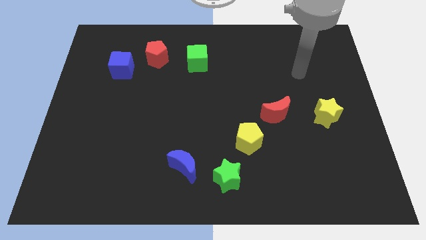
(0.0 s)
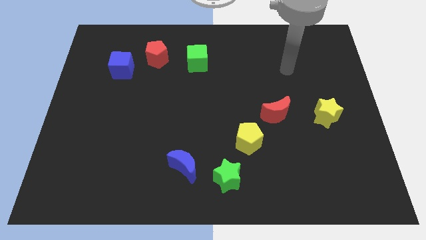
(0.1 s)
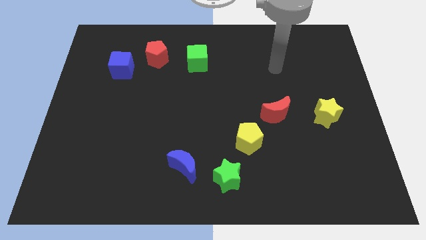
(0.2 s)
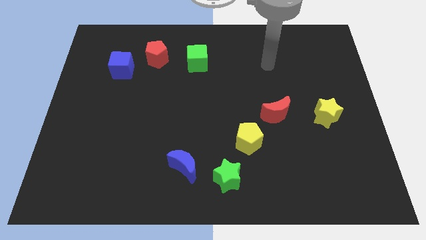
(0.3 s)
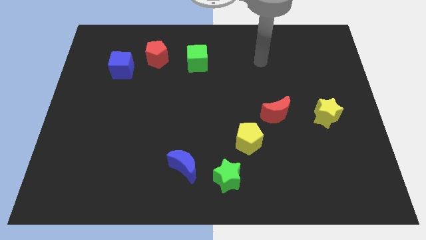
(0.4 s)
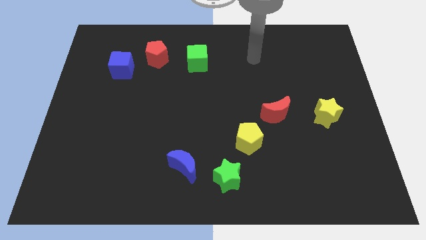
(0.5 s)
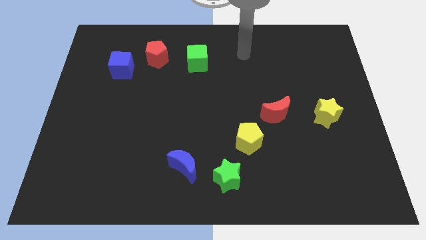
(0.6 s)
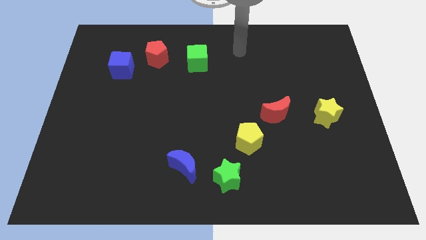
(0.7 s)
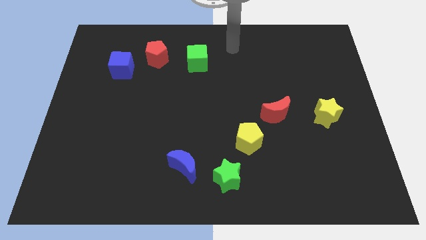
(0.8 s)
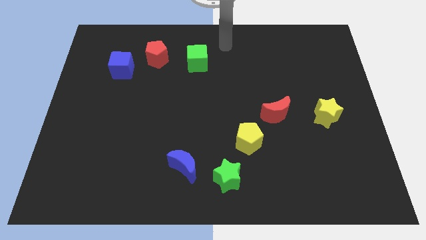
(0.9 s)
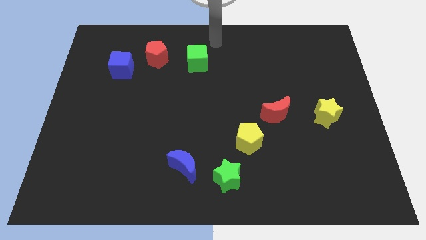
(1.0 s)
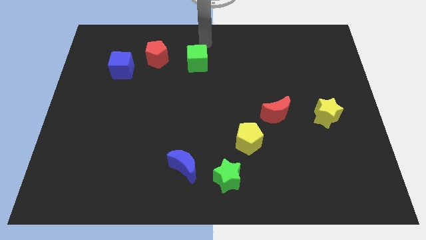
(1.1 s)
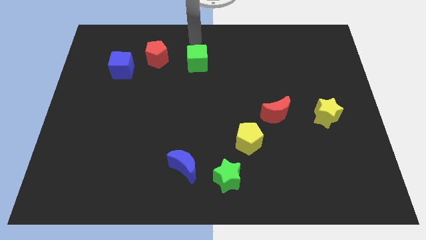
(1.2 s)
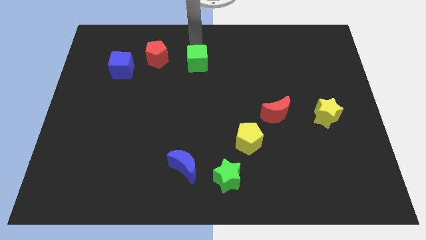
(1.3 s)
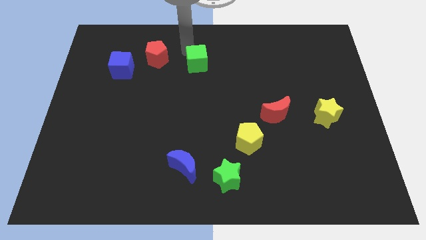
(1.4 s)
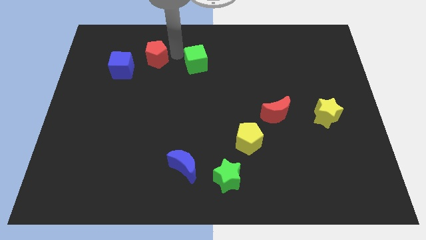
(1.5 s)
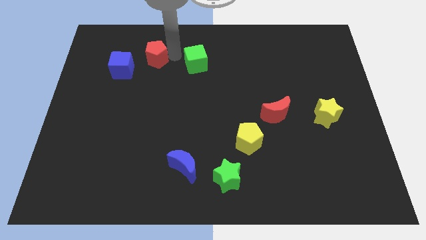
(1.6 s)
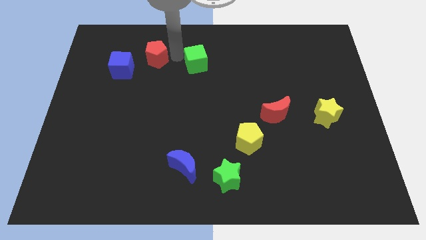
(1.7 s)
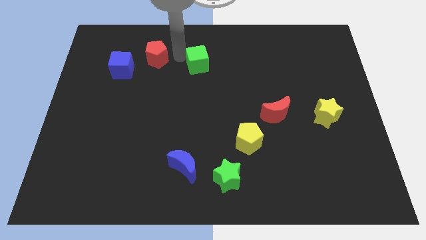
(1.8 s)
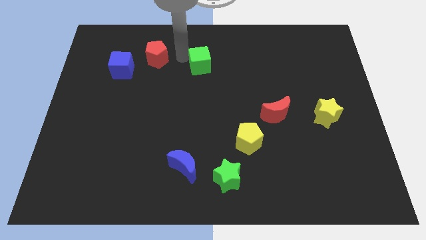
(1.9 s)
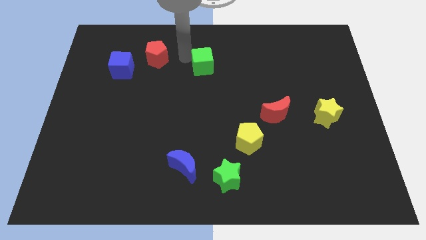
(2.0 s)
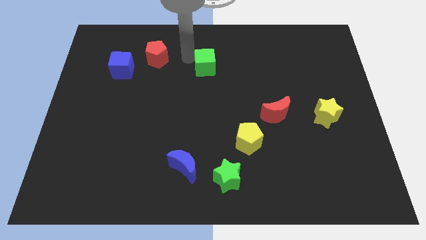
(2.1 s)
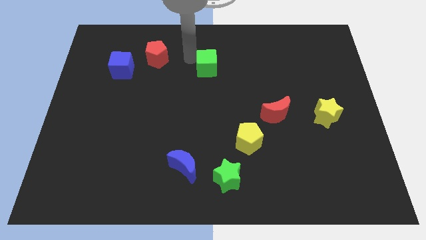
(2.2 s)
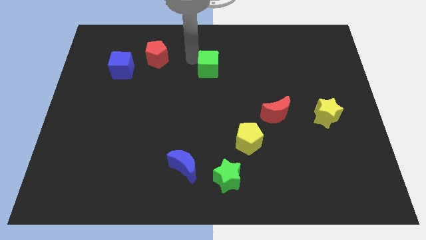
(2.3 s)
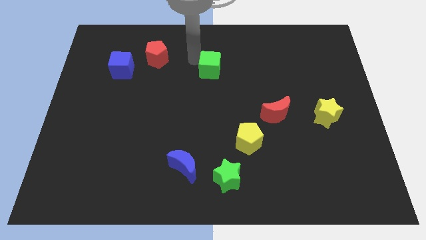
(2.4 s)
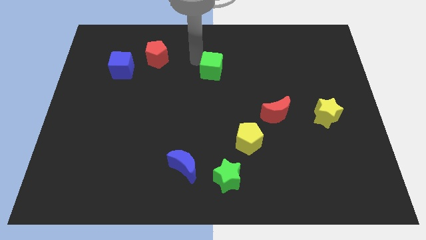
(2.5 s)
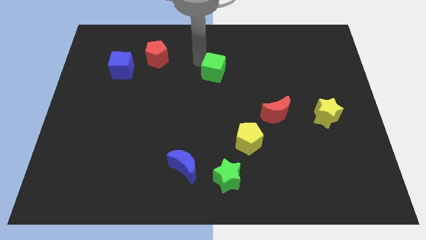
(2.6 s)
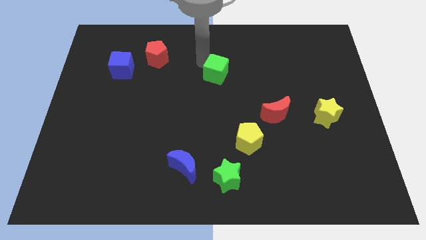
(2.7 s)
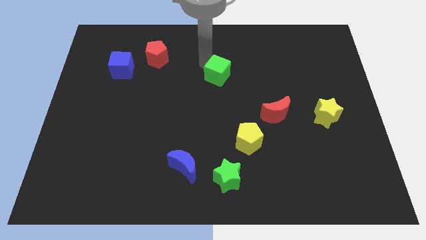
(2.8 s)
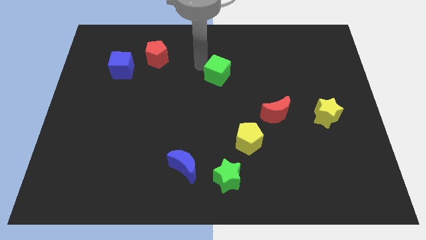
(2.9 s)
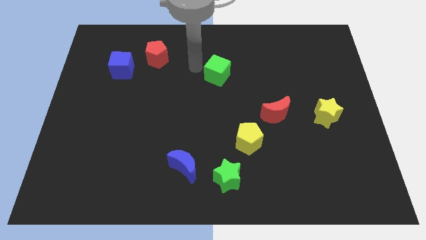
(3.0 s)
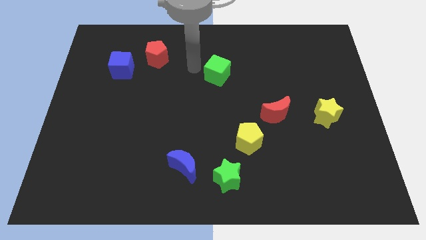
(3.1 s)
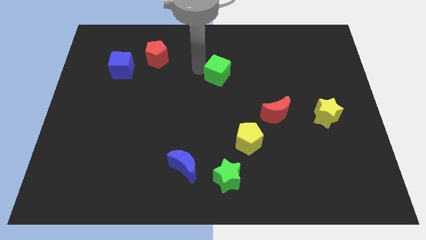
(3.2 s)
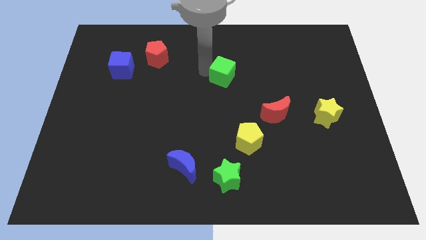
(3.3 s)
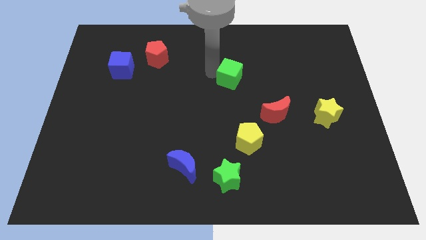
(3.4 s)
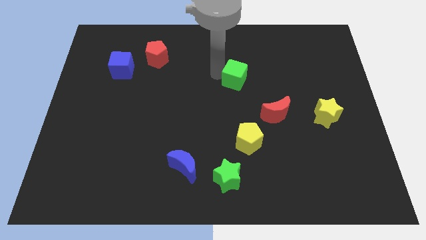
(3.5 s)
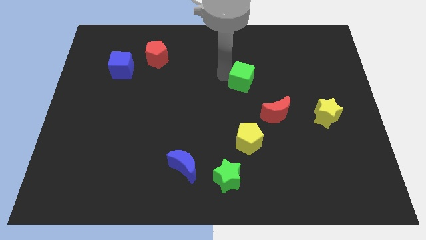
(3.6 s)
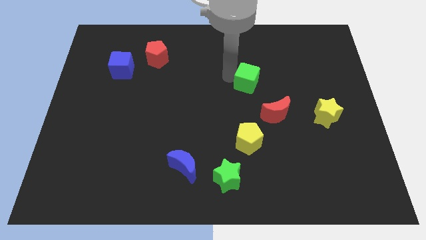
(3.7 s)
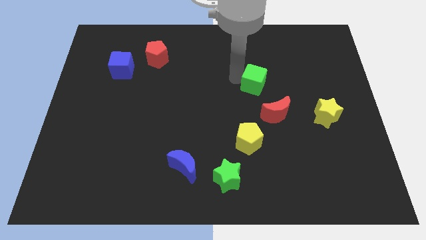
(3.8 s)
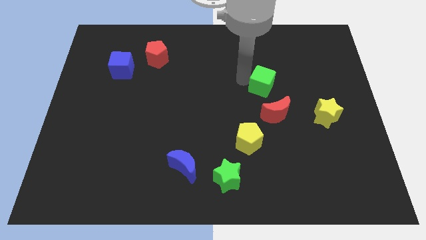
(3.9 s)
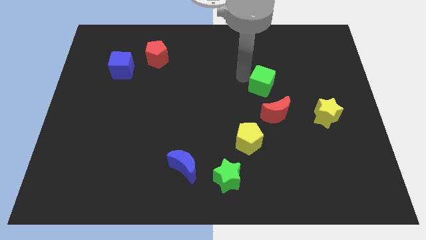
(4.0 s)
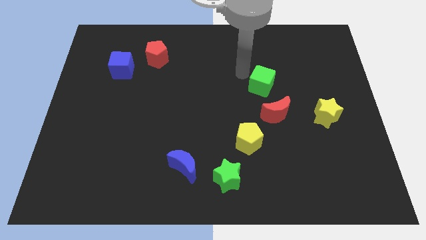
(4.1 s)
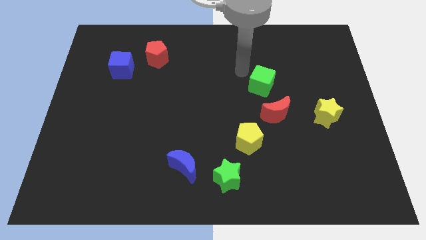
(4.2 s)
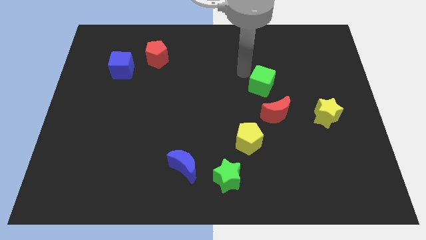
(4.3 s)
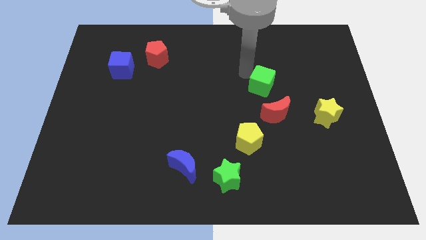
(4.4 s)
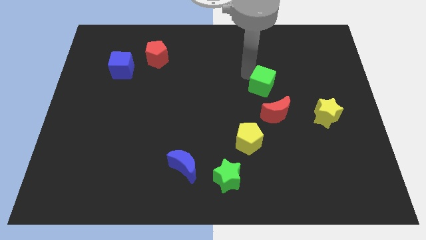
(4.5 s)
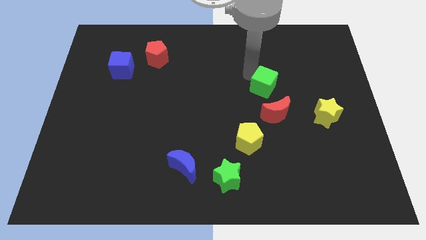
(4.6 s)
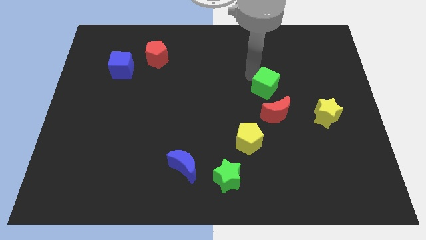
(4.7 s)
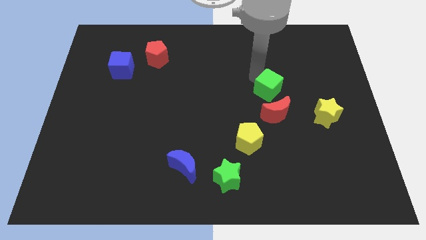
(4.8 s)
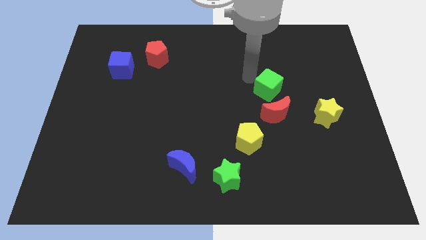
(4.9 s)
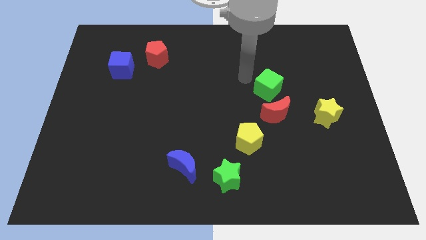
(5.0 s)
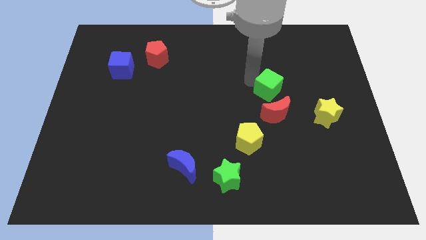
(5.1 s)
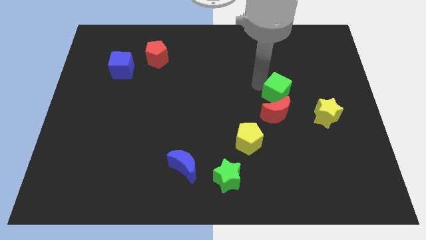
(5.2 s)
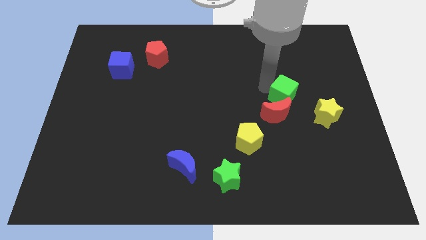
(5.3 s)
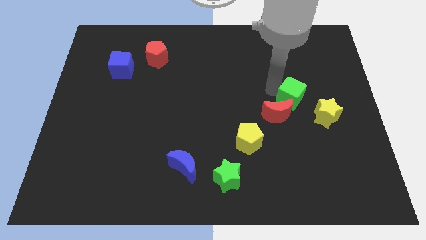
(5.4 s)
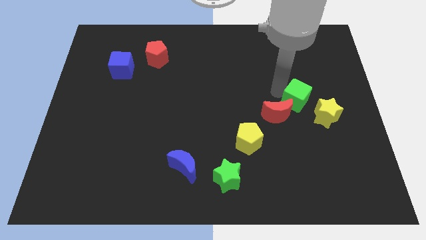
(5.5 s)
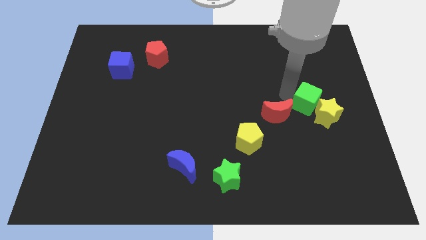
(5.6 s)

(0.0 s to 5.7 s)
push the green cube to the yellow star

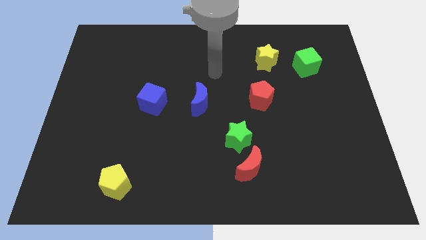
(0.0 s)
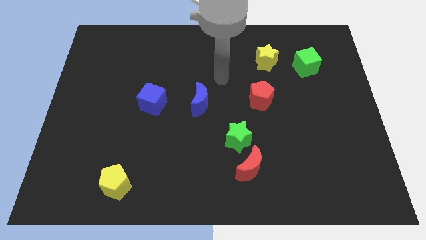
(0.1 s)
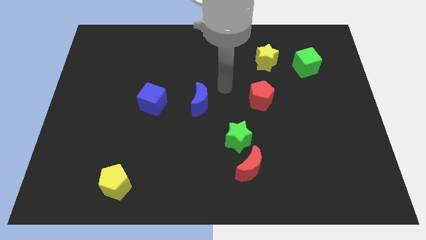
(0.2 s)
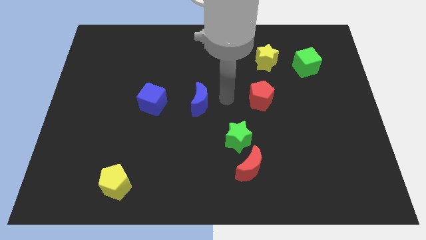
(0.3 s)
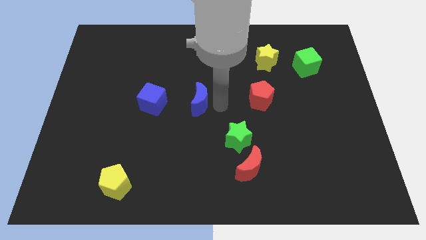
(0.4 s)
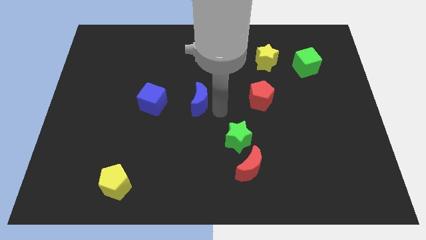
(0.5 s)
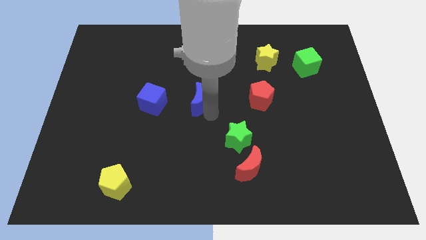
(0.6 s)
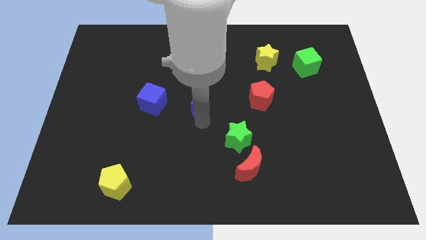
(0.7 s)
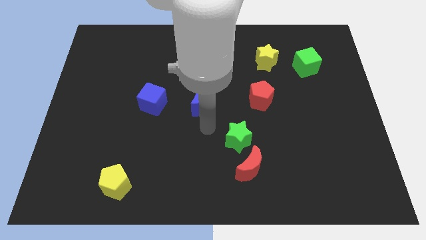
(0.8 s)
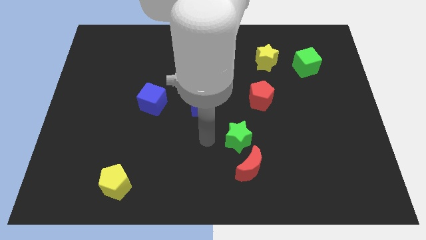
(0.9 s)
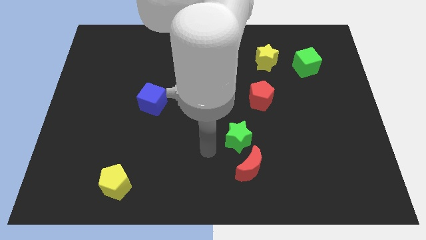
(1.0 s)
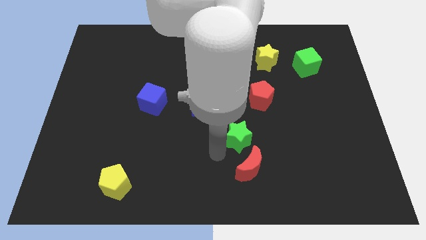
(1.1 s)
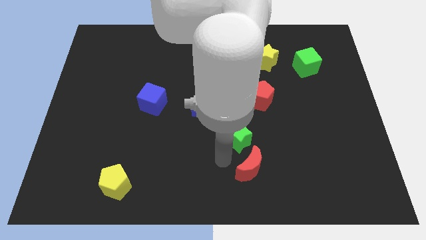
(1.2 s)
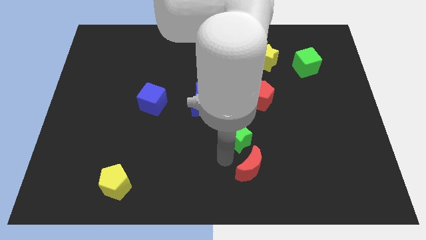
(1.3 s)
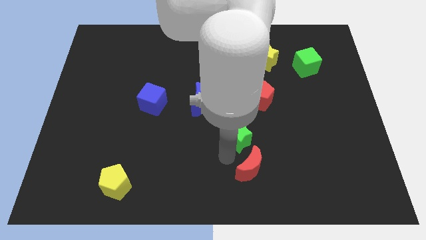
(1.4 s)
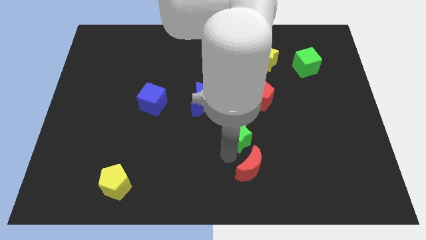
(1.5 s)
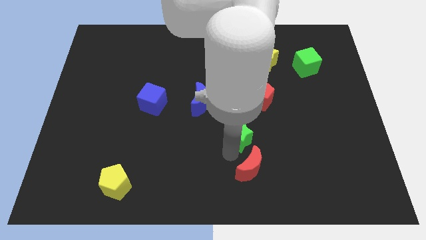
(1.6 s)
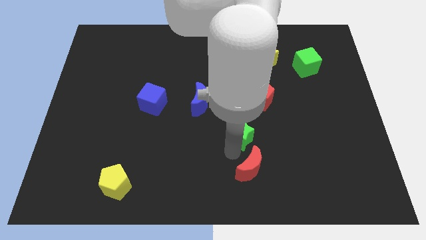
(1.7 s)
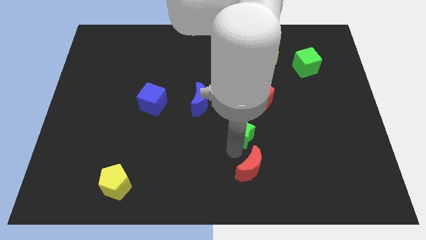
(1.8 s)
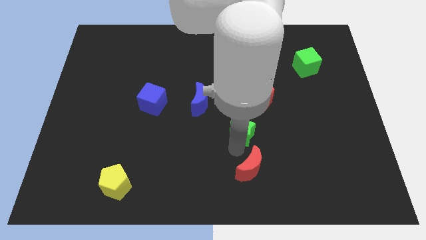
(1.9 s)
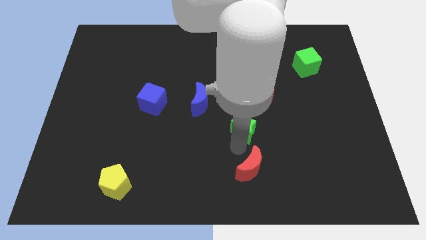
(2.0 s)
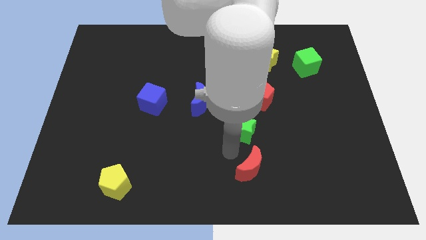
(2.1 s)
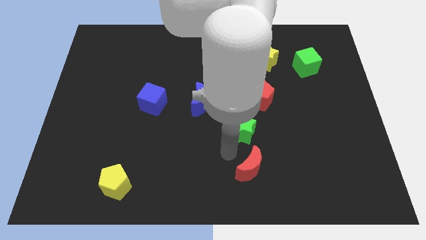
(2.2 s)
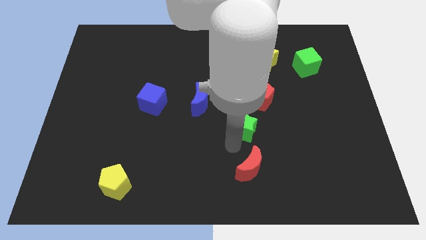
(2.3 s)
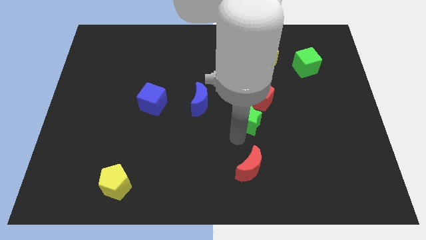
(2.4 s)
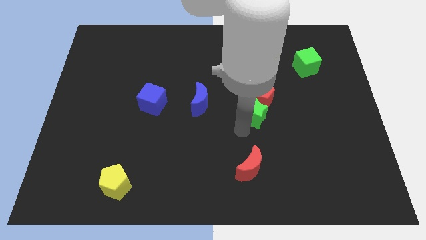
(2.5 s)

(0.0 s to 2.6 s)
put the green star towards the red pentagon
